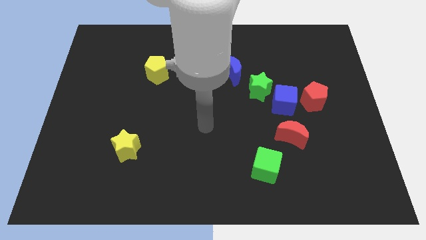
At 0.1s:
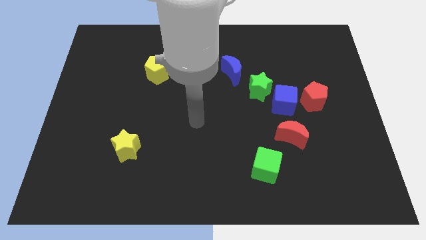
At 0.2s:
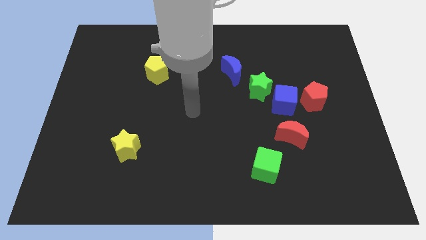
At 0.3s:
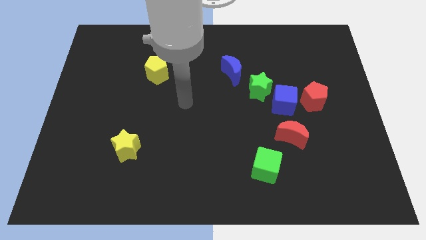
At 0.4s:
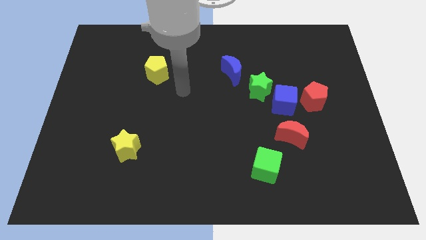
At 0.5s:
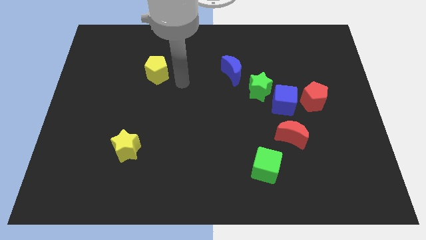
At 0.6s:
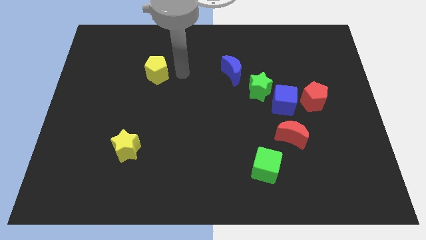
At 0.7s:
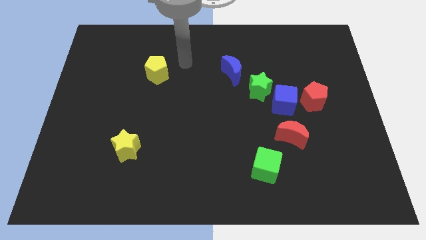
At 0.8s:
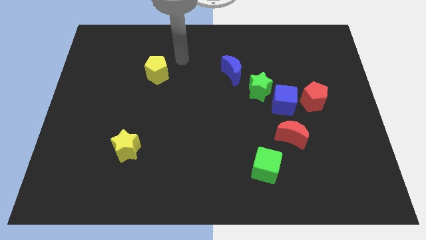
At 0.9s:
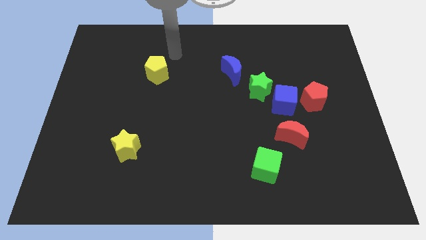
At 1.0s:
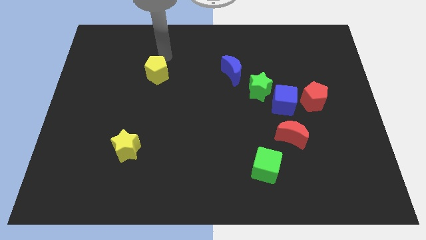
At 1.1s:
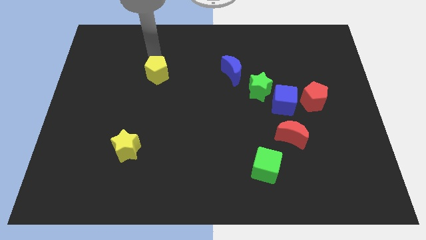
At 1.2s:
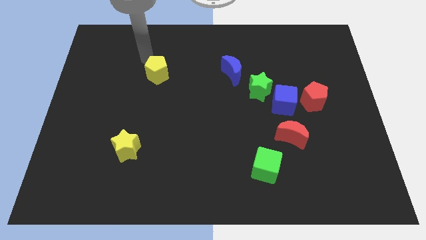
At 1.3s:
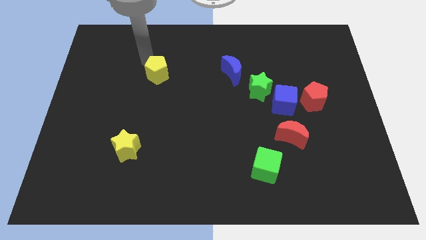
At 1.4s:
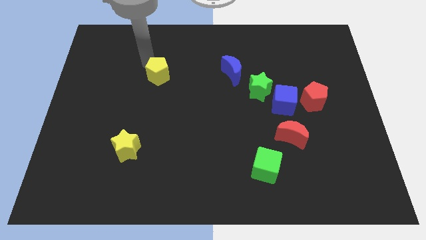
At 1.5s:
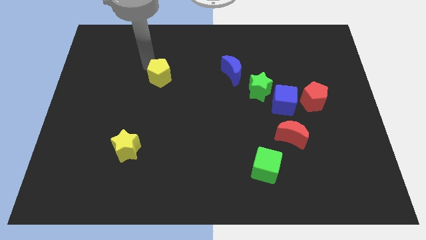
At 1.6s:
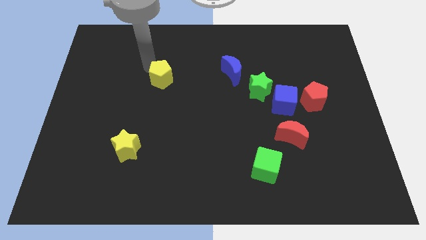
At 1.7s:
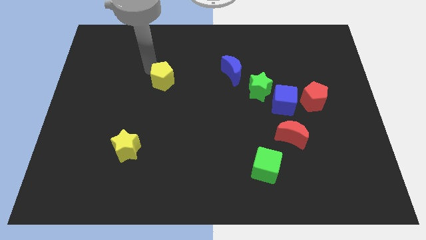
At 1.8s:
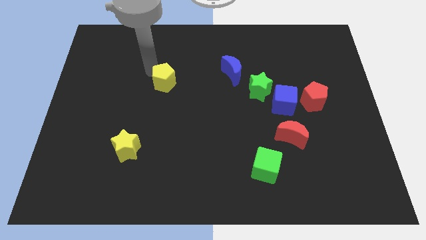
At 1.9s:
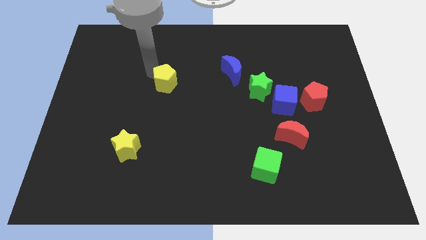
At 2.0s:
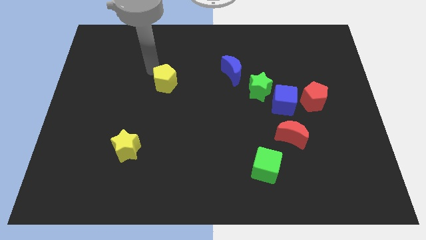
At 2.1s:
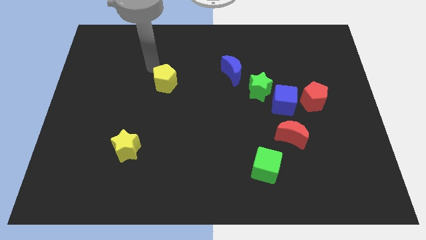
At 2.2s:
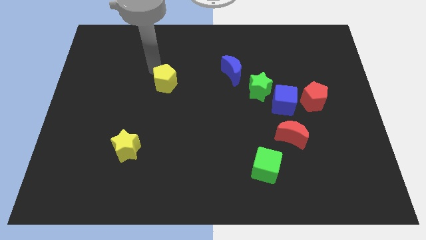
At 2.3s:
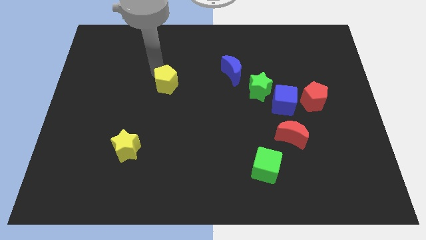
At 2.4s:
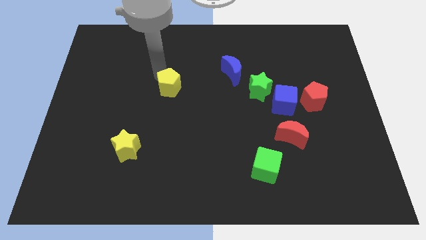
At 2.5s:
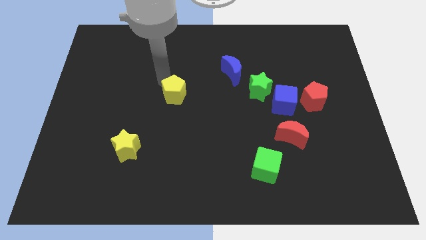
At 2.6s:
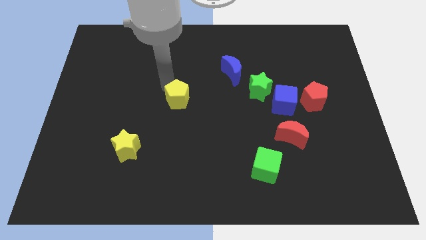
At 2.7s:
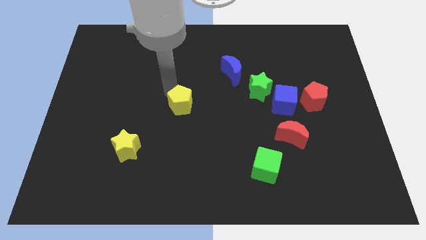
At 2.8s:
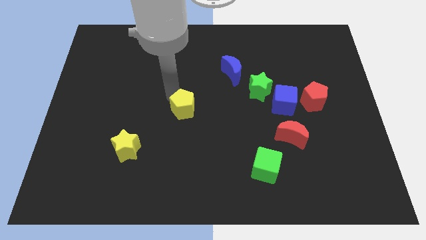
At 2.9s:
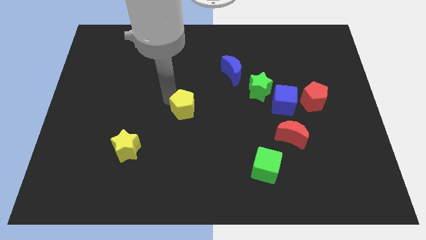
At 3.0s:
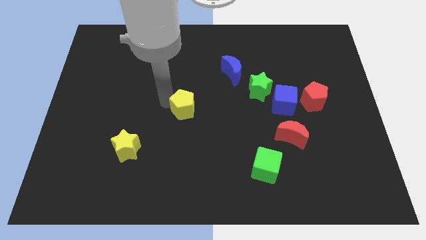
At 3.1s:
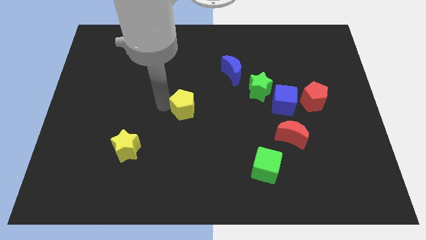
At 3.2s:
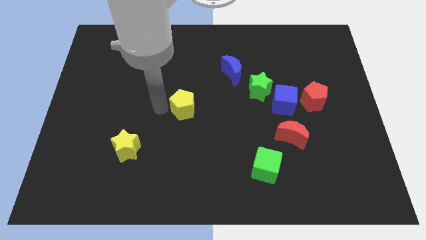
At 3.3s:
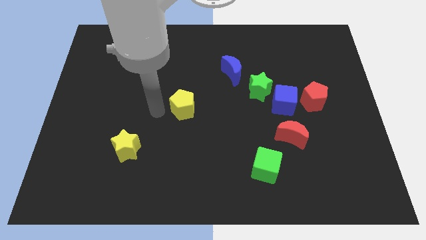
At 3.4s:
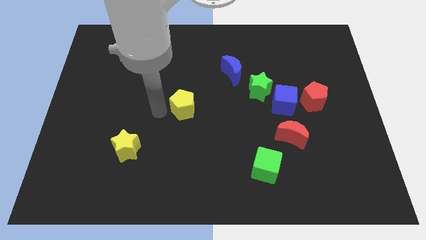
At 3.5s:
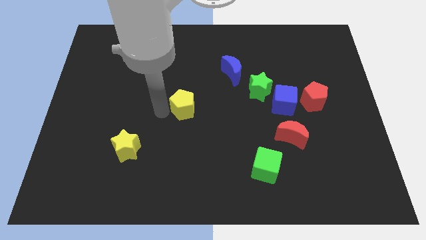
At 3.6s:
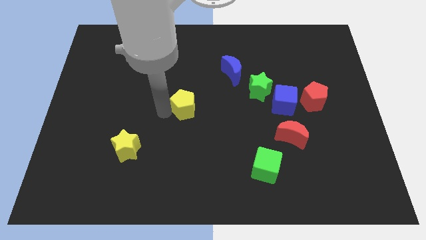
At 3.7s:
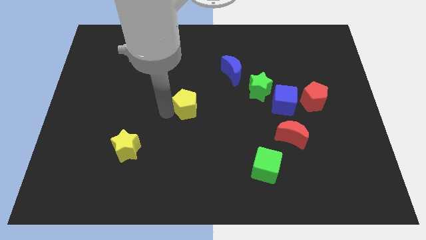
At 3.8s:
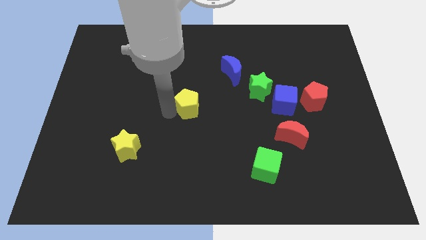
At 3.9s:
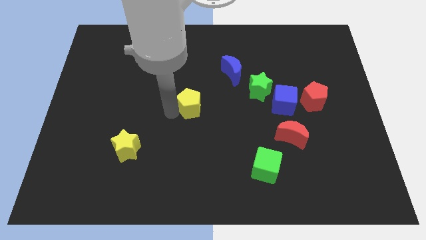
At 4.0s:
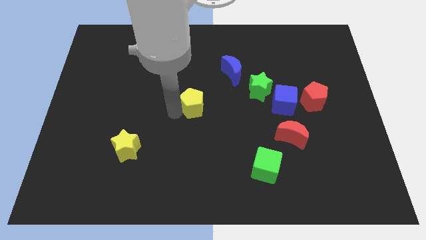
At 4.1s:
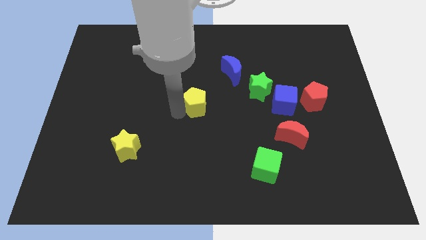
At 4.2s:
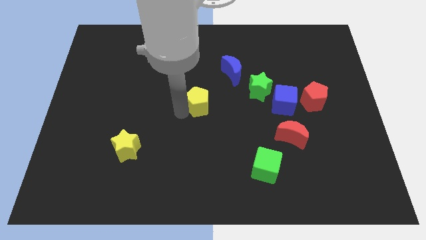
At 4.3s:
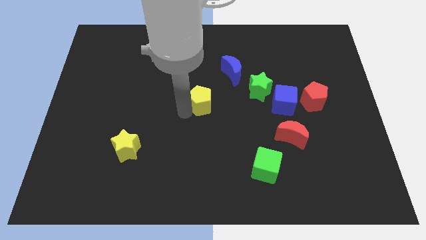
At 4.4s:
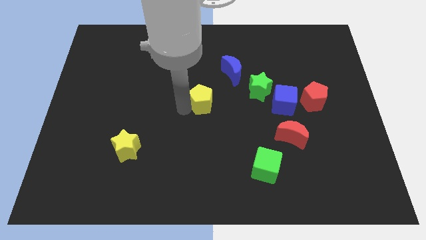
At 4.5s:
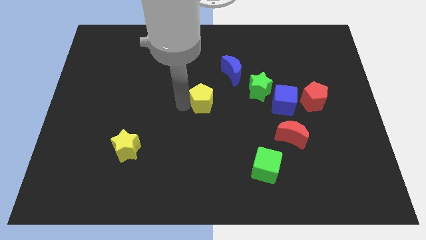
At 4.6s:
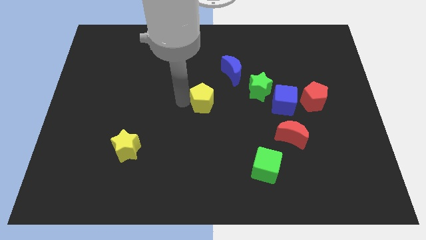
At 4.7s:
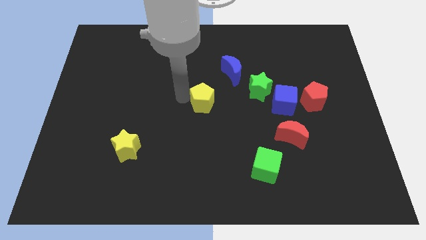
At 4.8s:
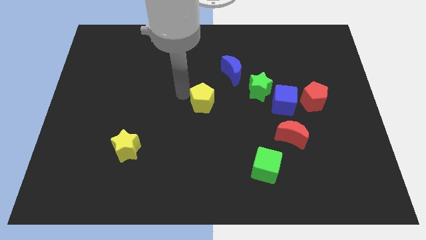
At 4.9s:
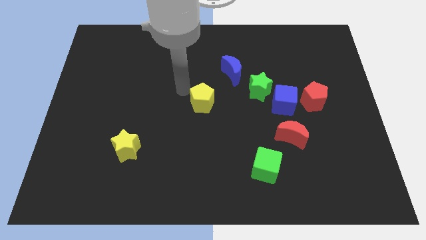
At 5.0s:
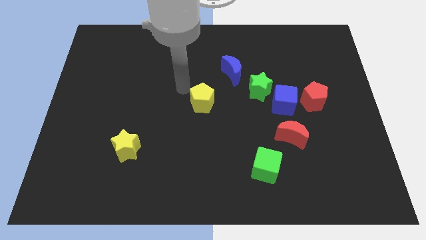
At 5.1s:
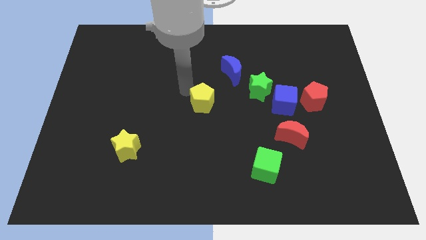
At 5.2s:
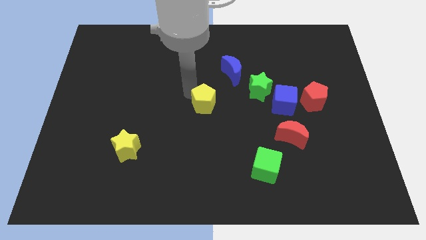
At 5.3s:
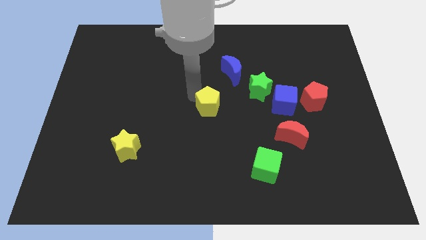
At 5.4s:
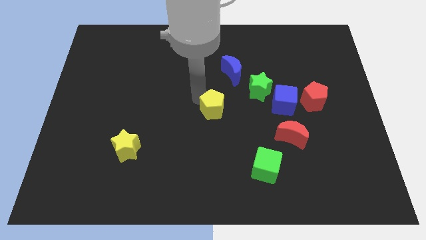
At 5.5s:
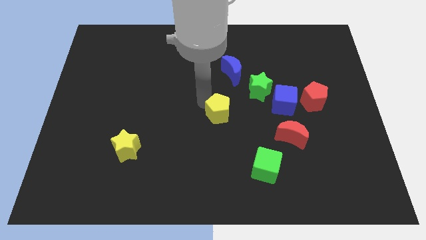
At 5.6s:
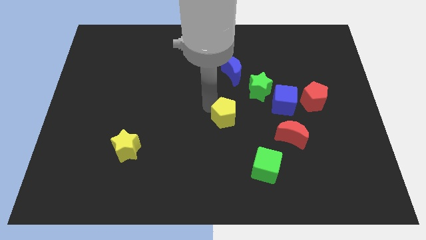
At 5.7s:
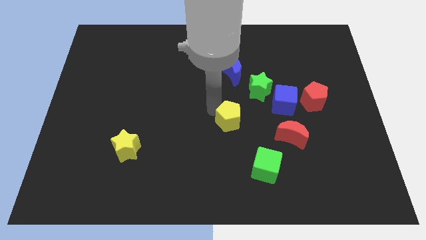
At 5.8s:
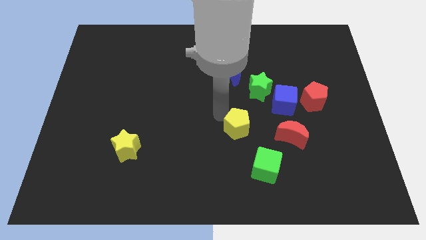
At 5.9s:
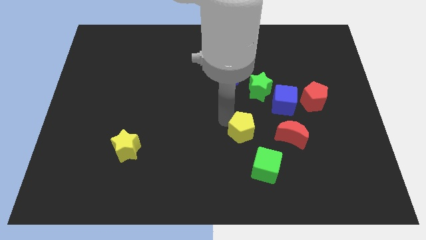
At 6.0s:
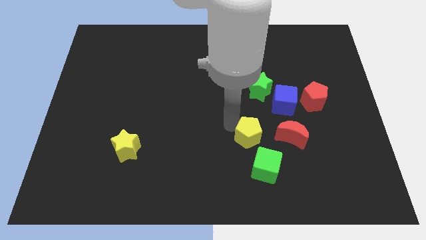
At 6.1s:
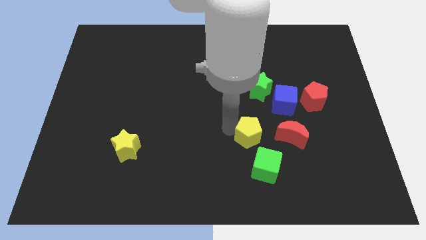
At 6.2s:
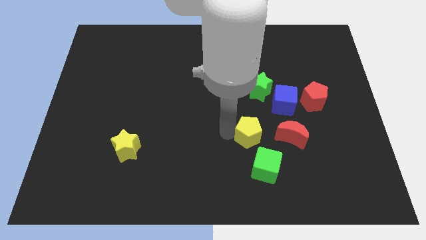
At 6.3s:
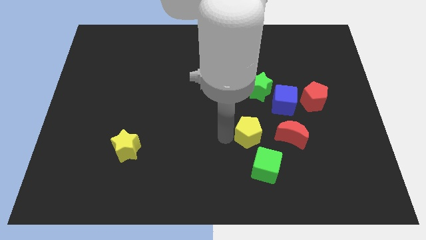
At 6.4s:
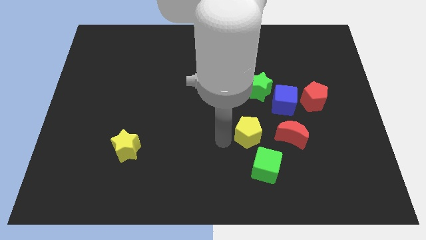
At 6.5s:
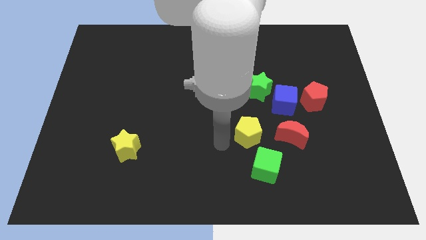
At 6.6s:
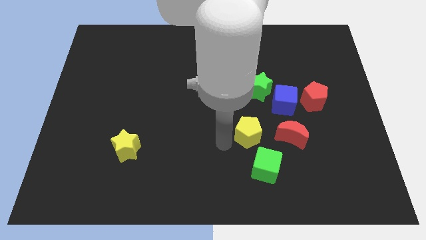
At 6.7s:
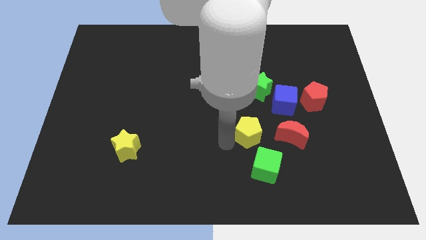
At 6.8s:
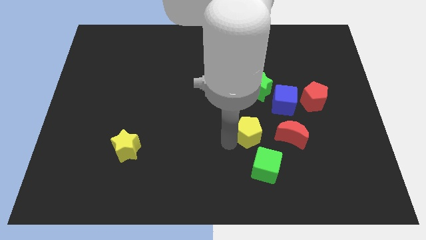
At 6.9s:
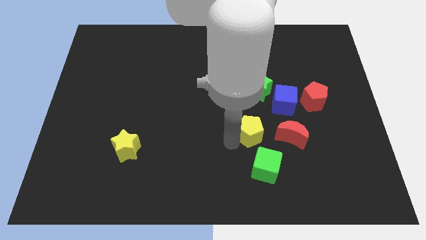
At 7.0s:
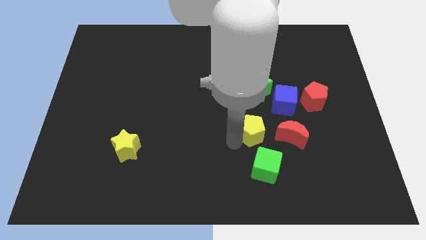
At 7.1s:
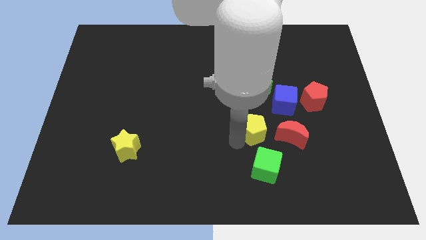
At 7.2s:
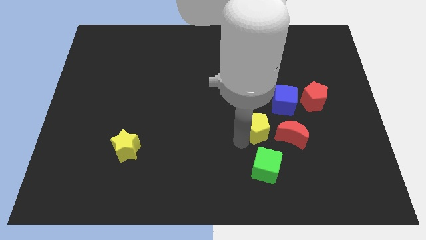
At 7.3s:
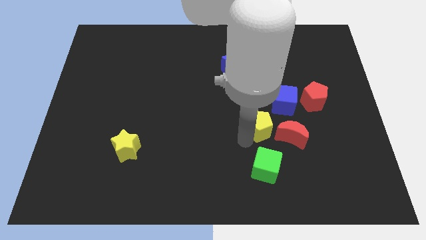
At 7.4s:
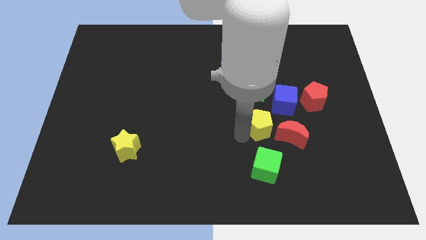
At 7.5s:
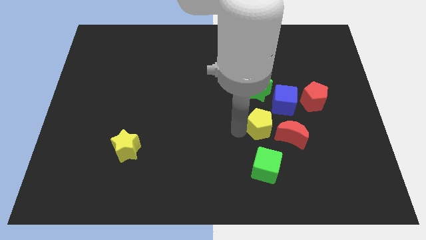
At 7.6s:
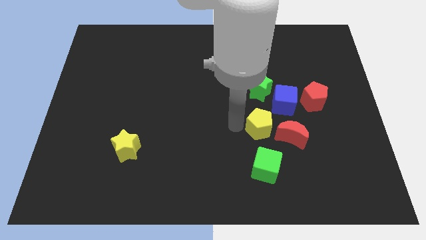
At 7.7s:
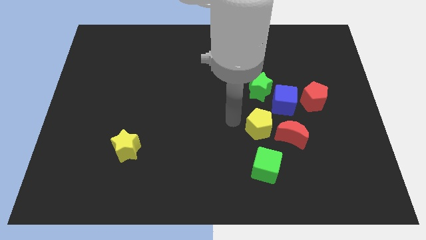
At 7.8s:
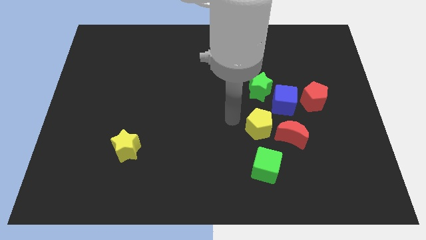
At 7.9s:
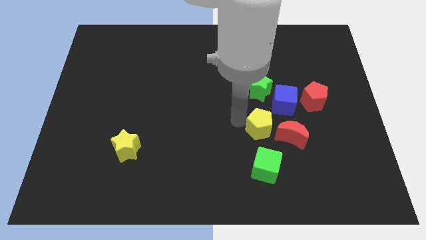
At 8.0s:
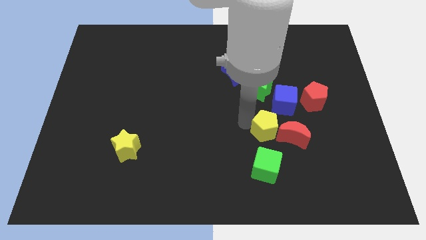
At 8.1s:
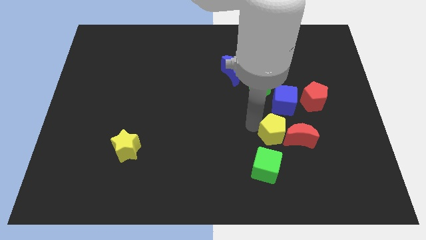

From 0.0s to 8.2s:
put the yellow pentagon towards the red moon
